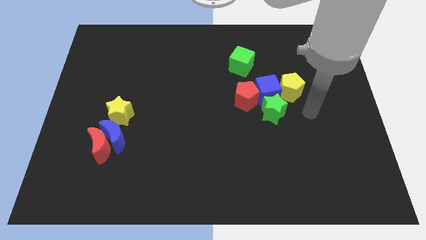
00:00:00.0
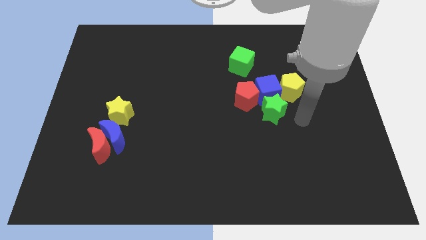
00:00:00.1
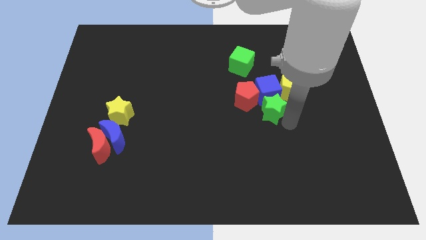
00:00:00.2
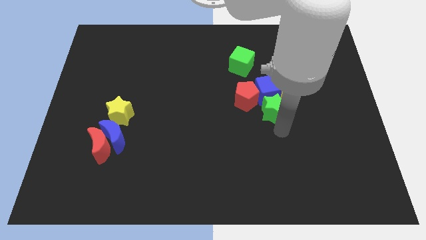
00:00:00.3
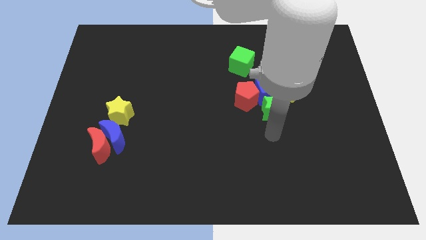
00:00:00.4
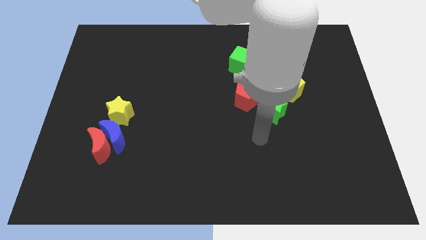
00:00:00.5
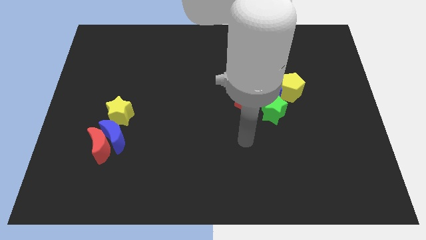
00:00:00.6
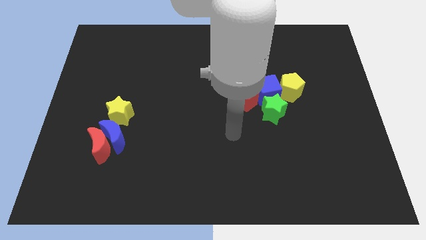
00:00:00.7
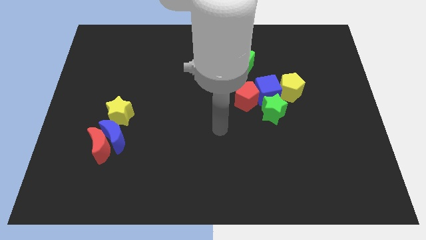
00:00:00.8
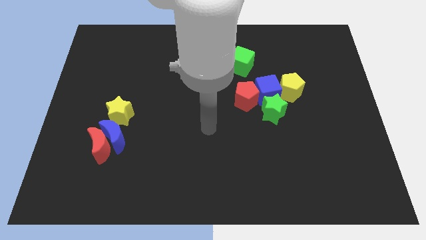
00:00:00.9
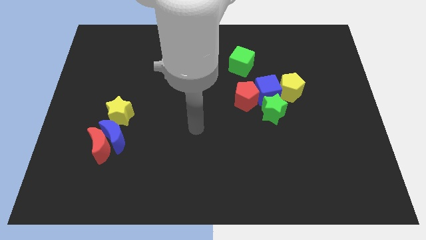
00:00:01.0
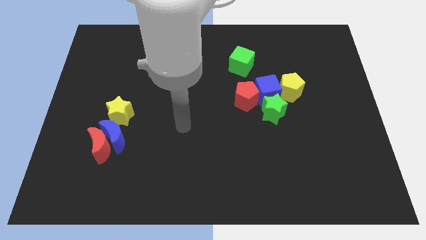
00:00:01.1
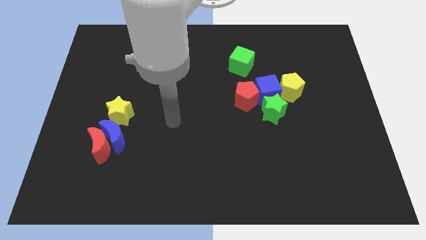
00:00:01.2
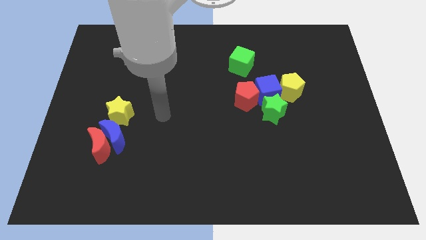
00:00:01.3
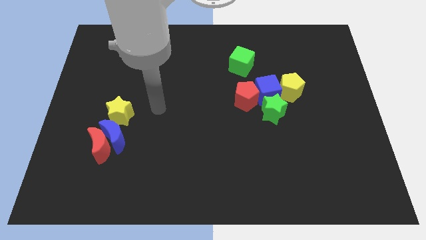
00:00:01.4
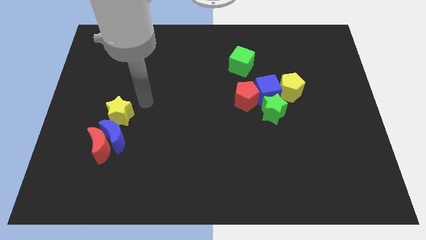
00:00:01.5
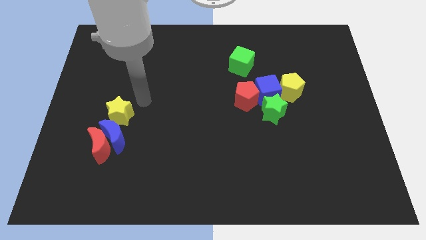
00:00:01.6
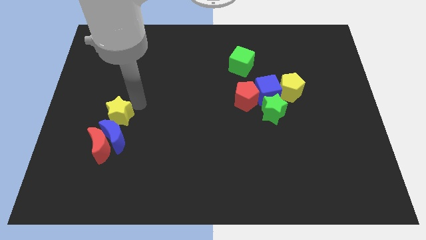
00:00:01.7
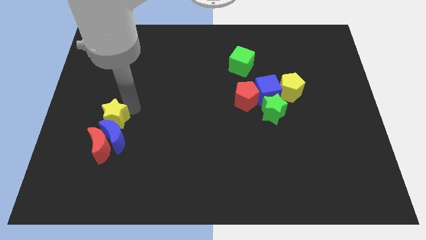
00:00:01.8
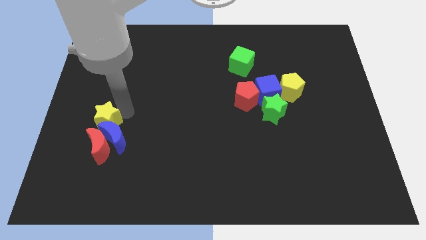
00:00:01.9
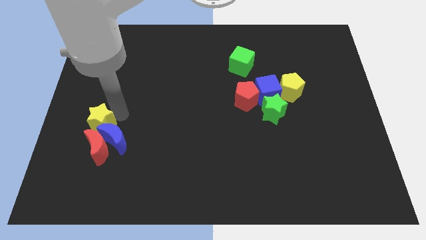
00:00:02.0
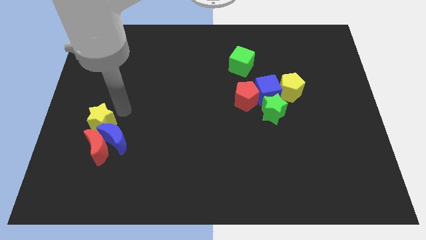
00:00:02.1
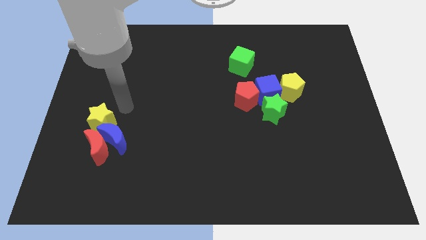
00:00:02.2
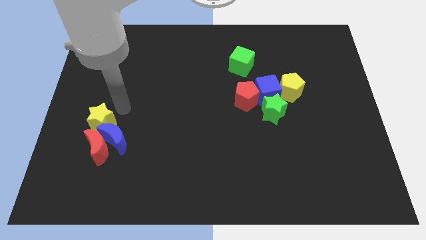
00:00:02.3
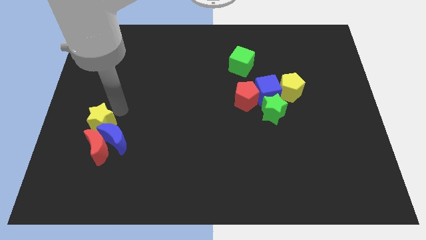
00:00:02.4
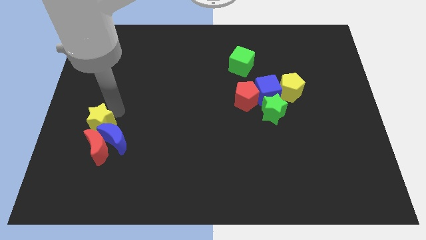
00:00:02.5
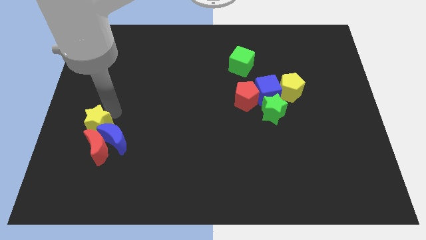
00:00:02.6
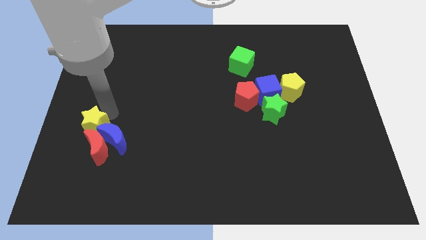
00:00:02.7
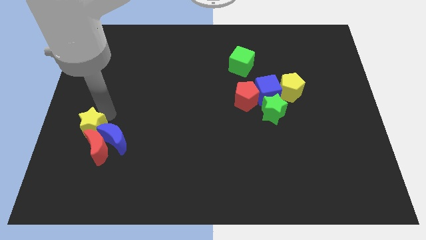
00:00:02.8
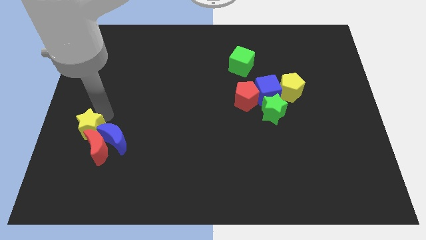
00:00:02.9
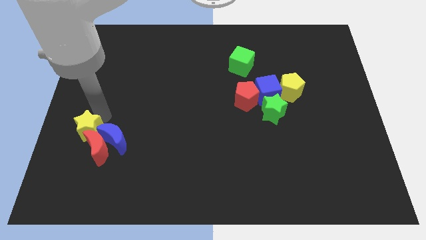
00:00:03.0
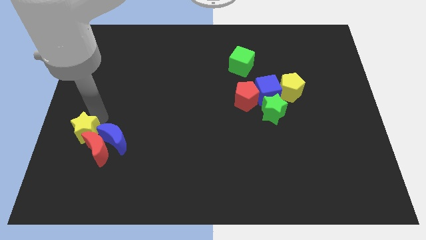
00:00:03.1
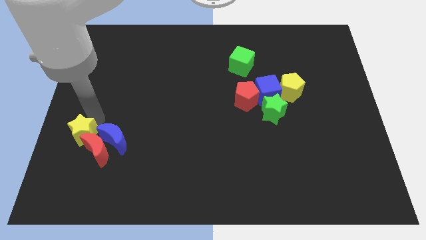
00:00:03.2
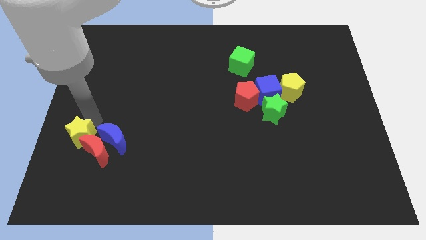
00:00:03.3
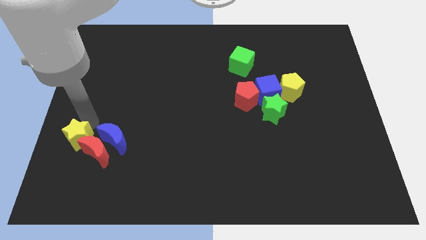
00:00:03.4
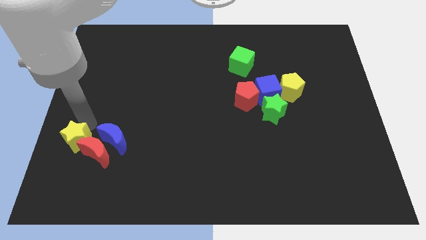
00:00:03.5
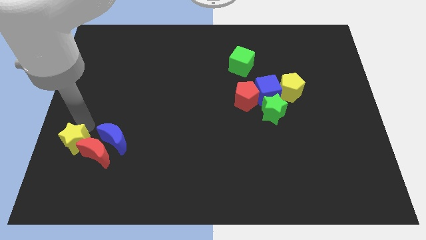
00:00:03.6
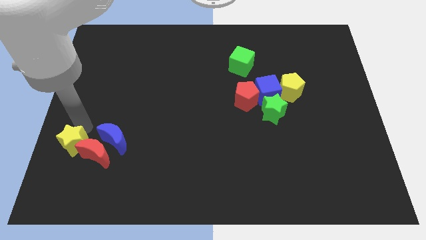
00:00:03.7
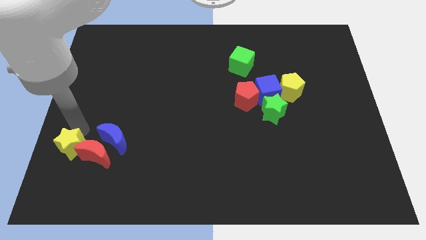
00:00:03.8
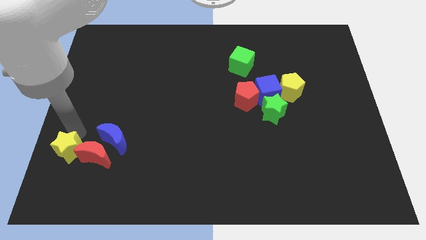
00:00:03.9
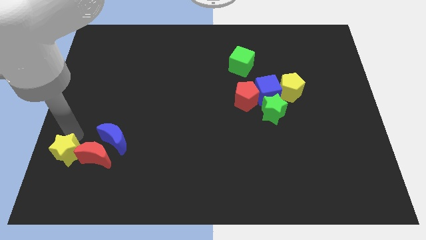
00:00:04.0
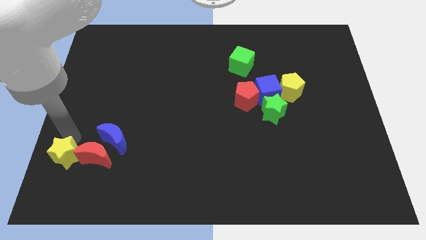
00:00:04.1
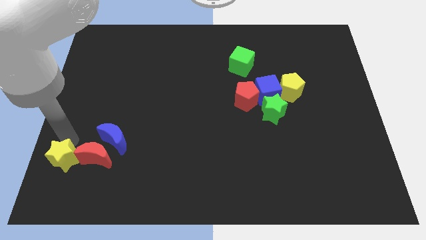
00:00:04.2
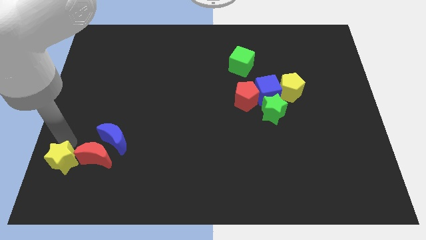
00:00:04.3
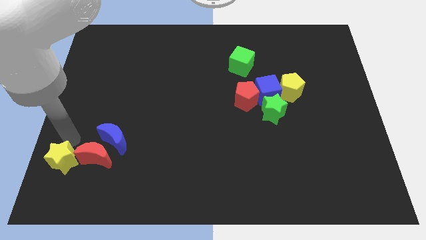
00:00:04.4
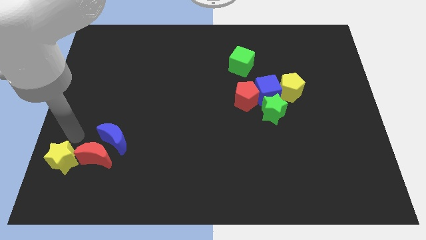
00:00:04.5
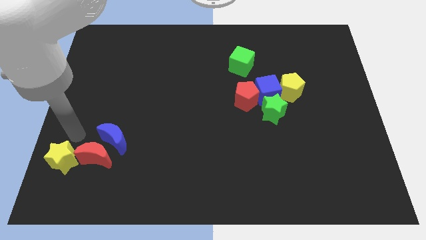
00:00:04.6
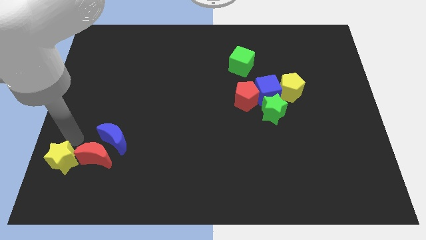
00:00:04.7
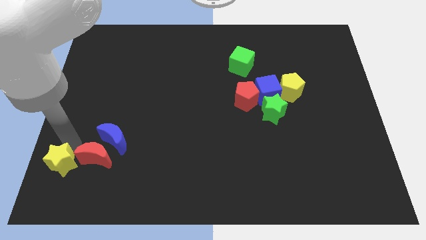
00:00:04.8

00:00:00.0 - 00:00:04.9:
push the yellow star to the bottom left

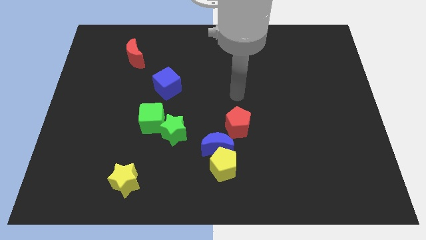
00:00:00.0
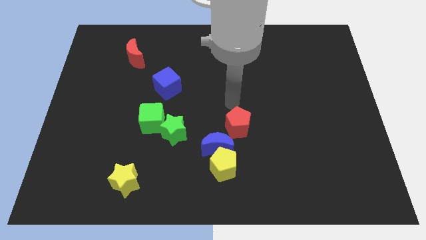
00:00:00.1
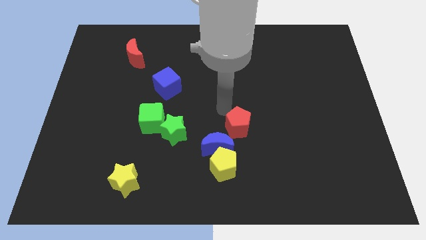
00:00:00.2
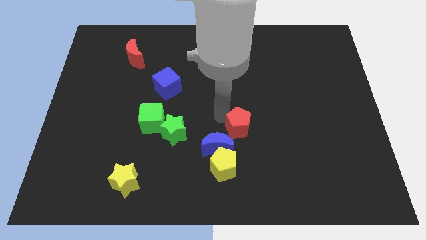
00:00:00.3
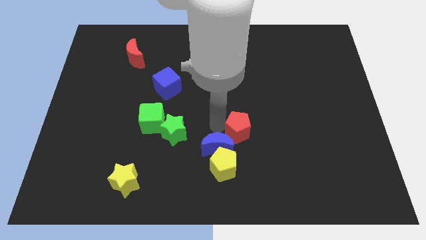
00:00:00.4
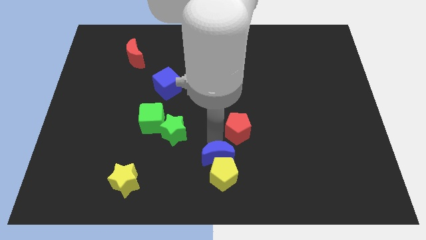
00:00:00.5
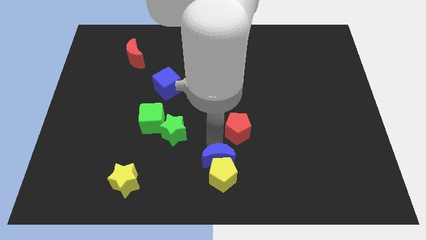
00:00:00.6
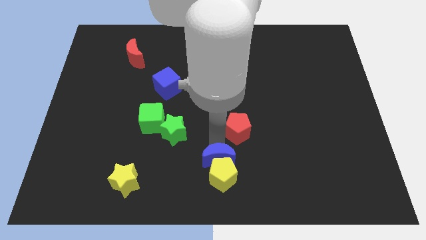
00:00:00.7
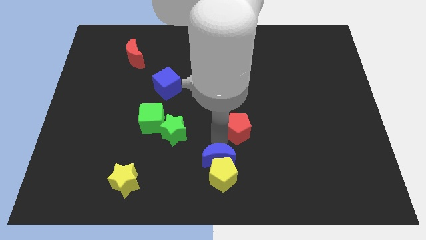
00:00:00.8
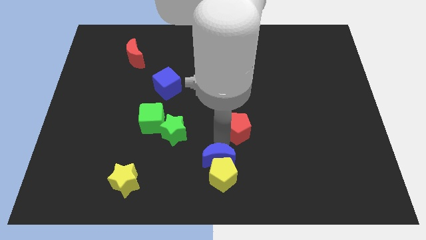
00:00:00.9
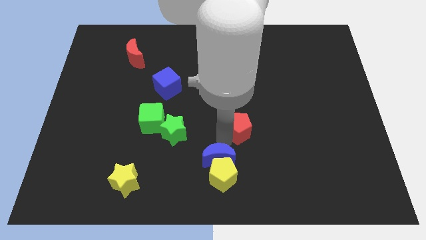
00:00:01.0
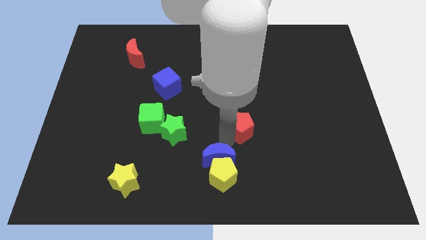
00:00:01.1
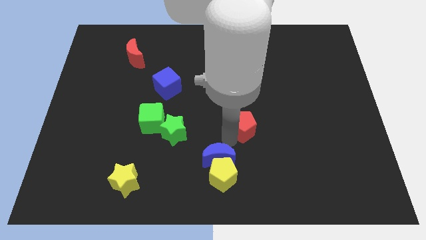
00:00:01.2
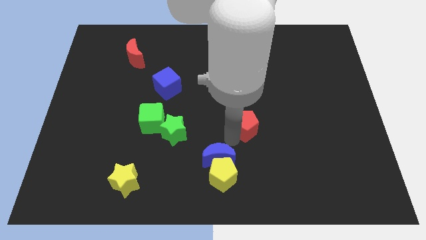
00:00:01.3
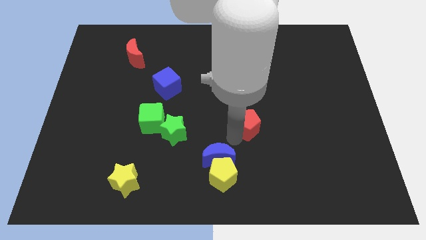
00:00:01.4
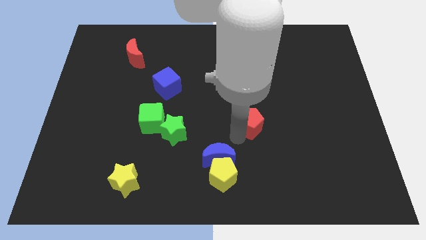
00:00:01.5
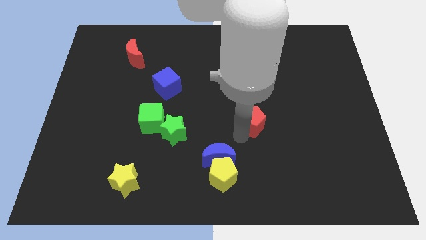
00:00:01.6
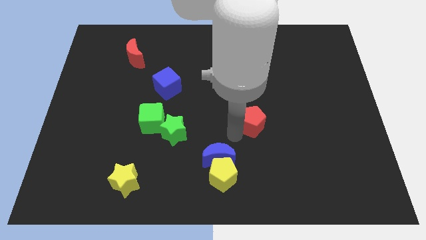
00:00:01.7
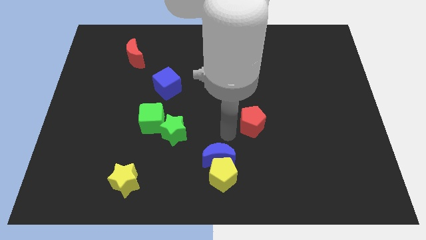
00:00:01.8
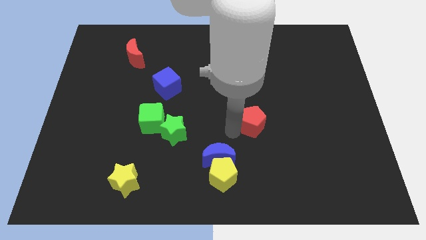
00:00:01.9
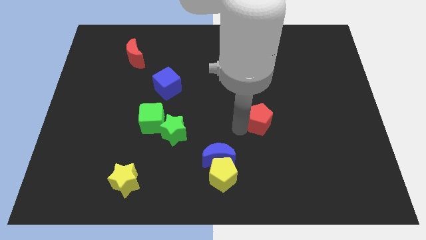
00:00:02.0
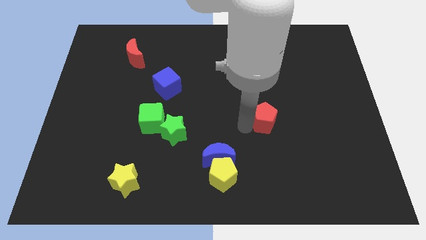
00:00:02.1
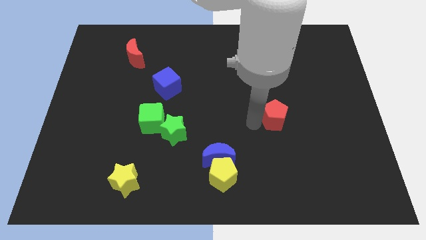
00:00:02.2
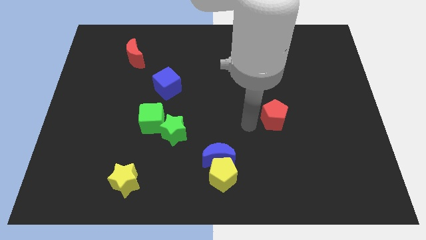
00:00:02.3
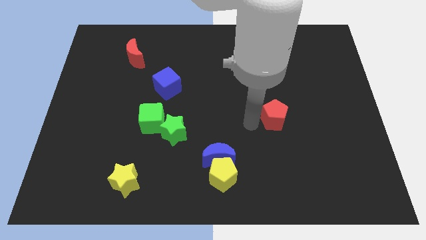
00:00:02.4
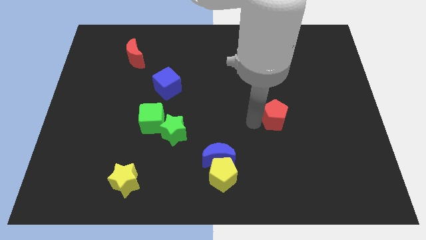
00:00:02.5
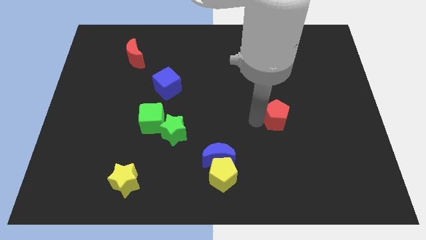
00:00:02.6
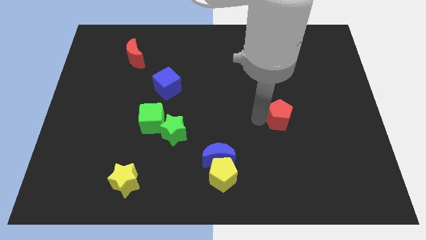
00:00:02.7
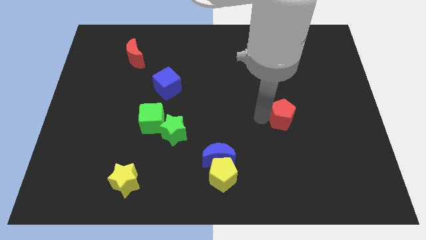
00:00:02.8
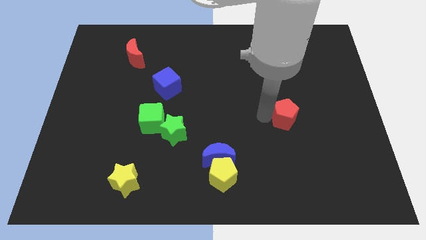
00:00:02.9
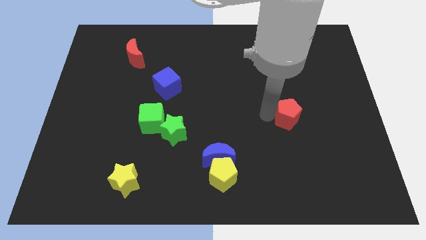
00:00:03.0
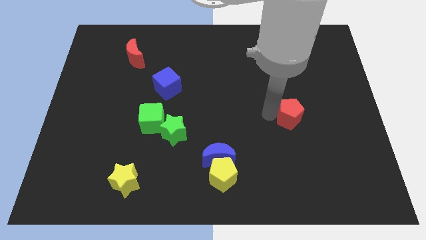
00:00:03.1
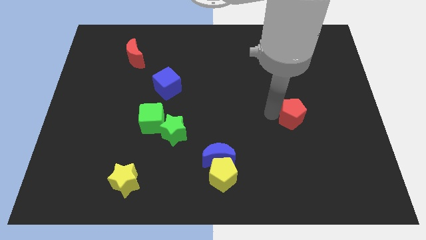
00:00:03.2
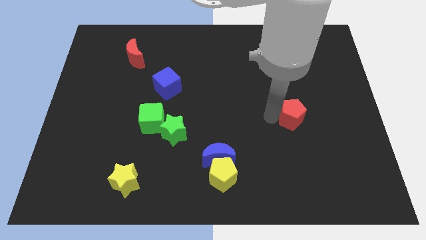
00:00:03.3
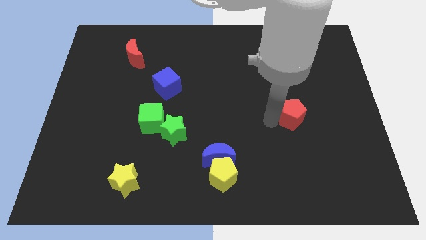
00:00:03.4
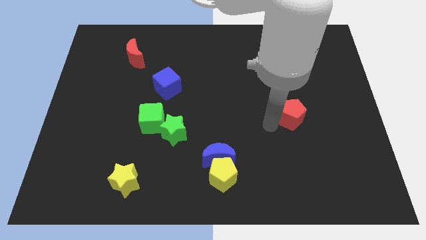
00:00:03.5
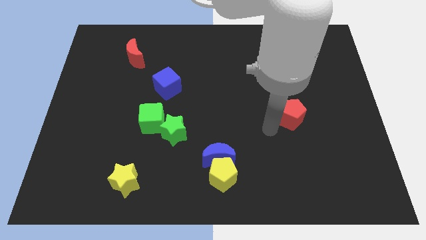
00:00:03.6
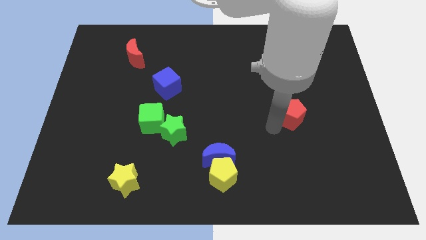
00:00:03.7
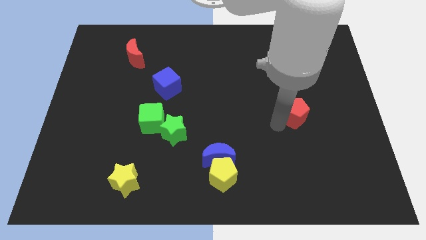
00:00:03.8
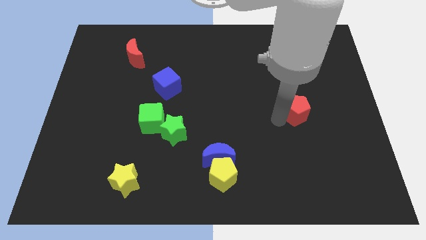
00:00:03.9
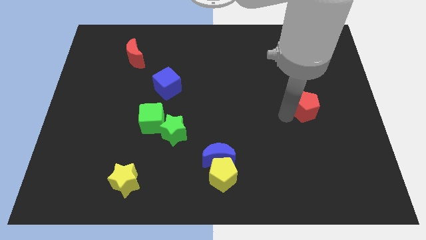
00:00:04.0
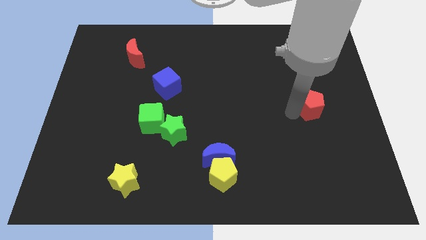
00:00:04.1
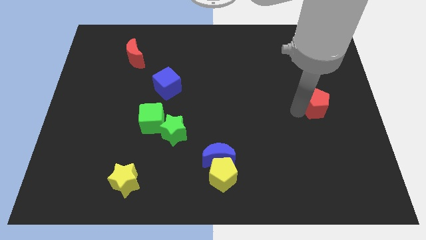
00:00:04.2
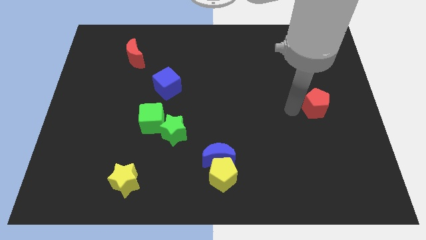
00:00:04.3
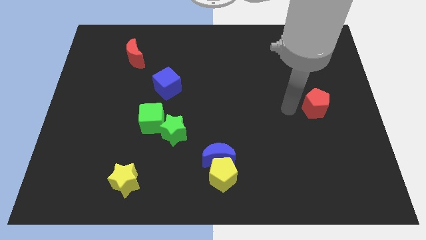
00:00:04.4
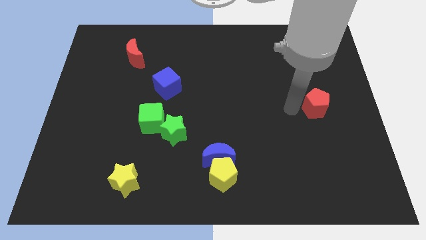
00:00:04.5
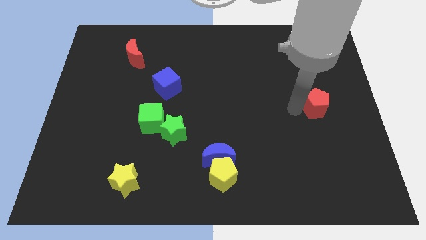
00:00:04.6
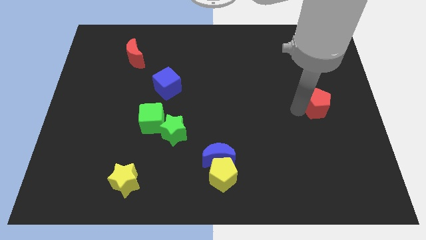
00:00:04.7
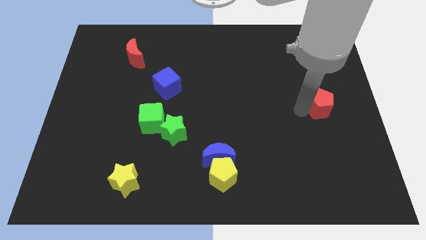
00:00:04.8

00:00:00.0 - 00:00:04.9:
move the red pentagon to the right side
